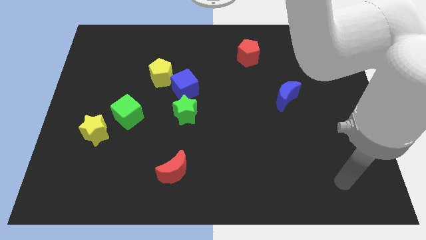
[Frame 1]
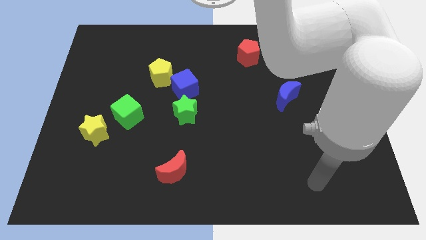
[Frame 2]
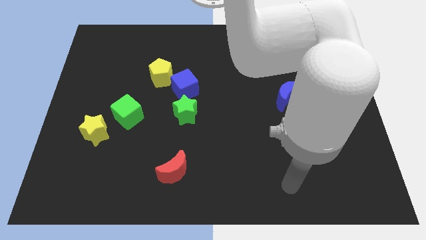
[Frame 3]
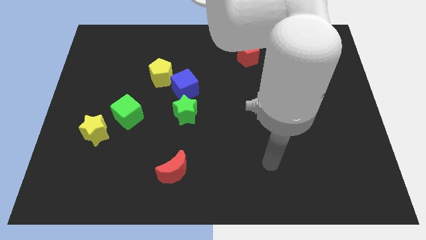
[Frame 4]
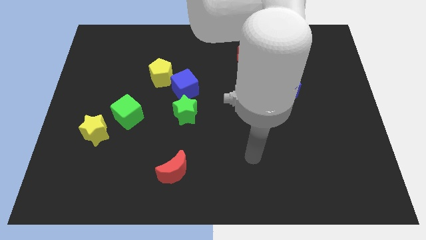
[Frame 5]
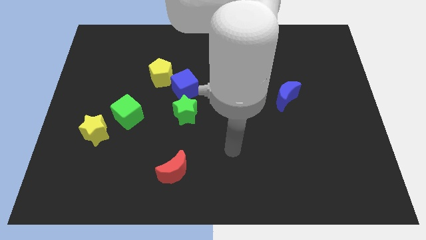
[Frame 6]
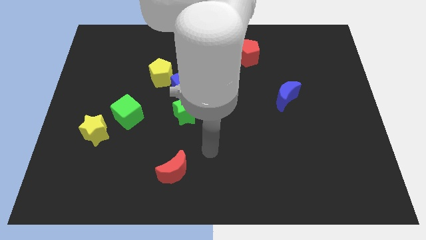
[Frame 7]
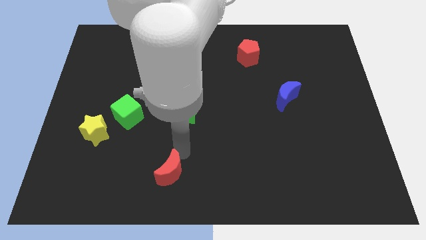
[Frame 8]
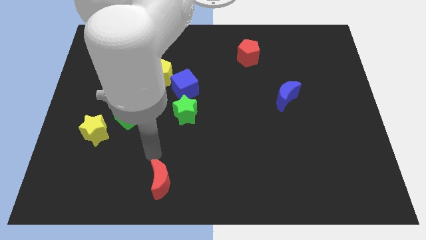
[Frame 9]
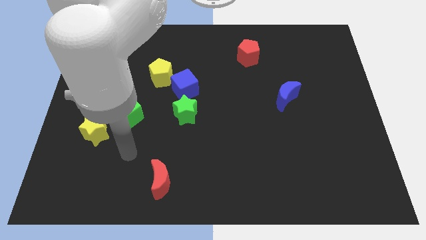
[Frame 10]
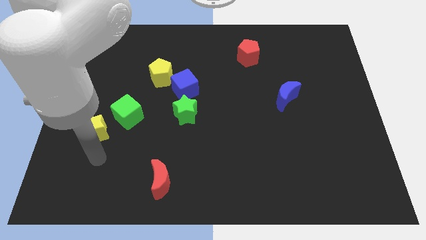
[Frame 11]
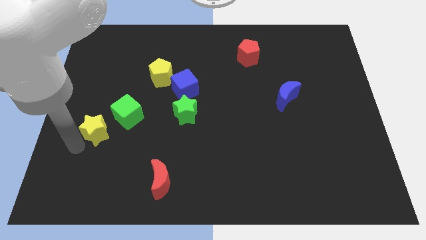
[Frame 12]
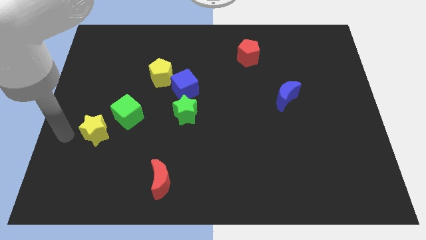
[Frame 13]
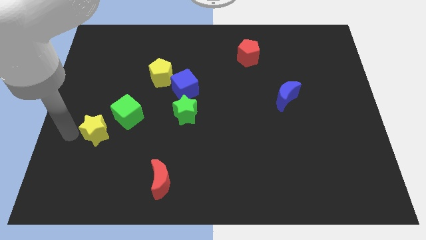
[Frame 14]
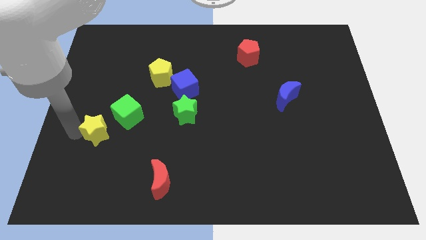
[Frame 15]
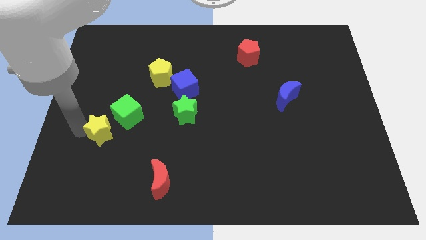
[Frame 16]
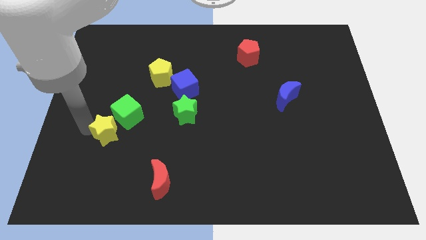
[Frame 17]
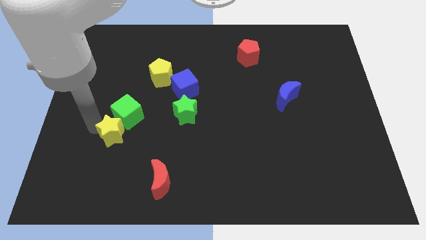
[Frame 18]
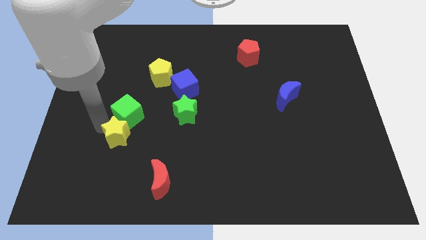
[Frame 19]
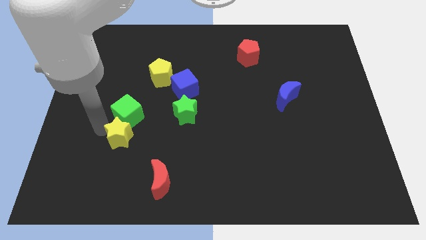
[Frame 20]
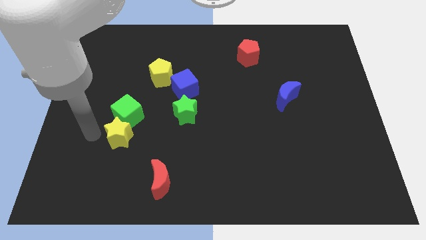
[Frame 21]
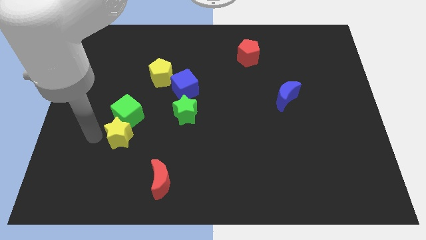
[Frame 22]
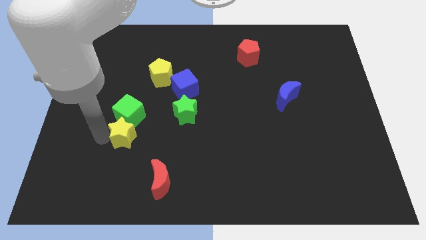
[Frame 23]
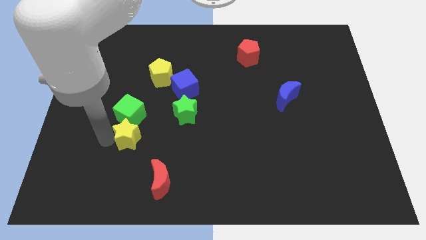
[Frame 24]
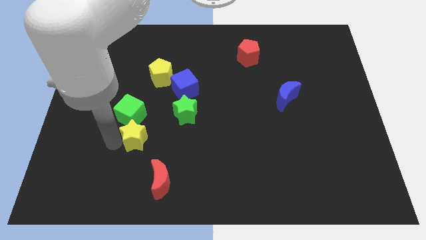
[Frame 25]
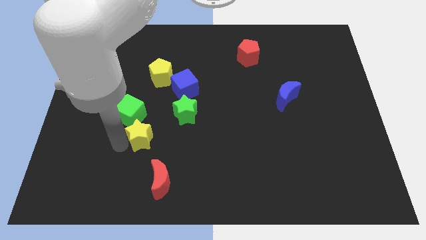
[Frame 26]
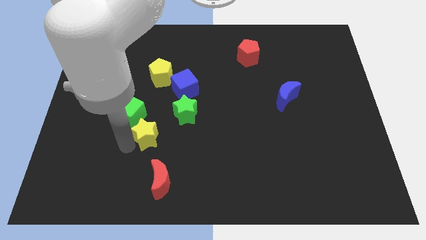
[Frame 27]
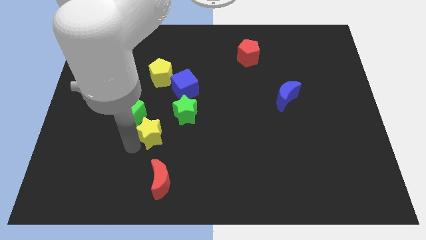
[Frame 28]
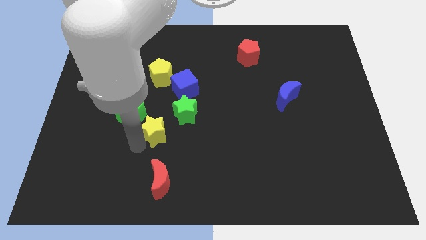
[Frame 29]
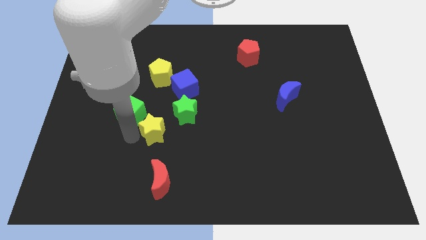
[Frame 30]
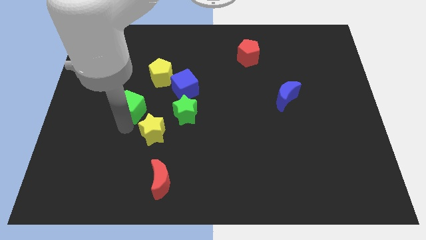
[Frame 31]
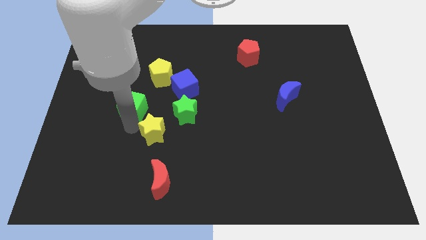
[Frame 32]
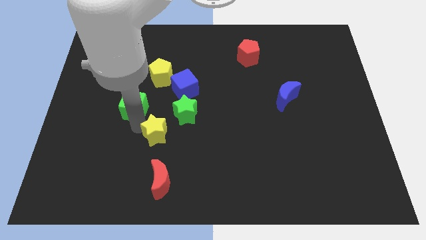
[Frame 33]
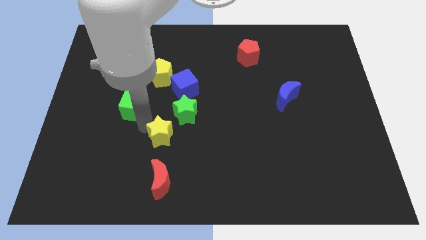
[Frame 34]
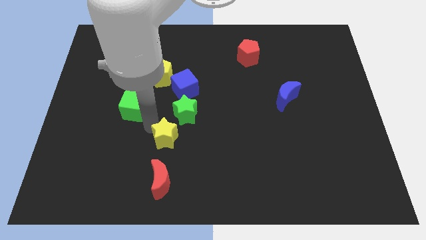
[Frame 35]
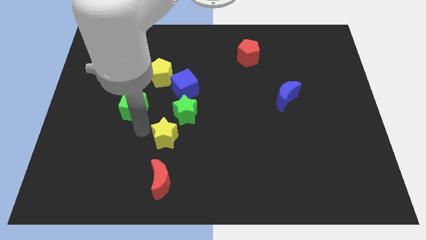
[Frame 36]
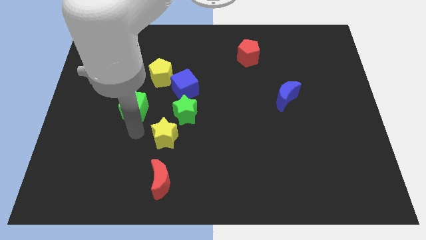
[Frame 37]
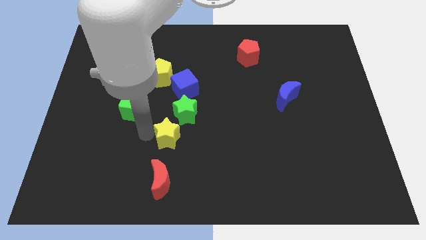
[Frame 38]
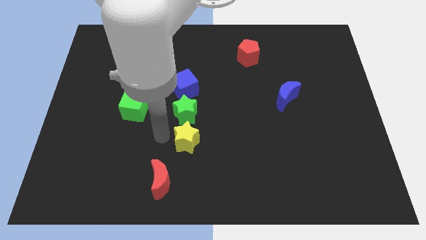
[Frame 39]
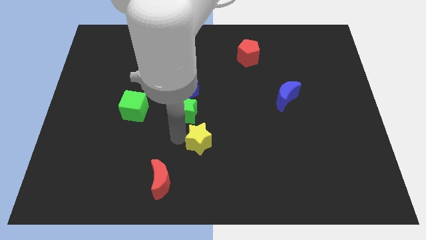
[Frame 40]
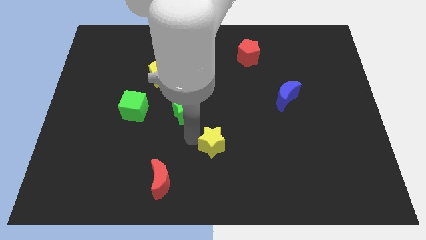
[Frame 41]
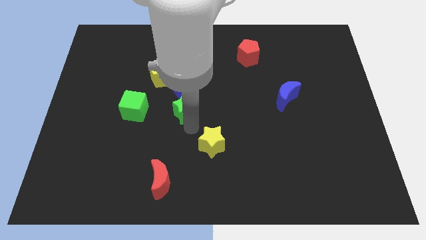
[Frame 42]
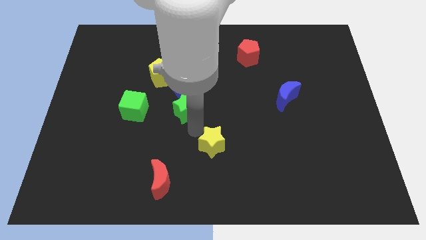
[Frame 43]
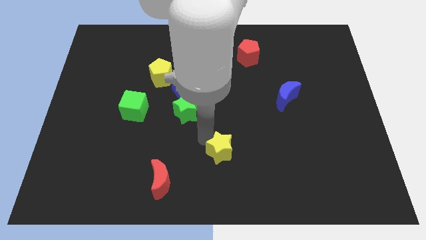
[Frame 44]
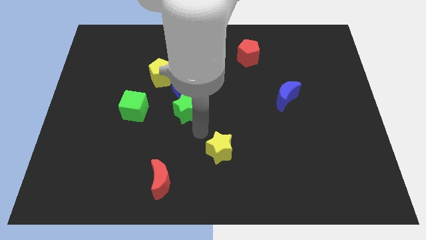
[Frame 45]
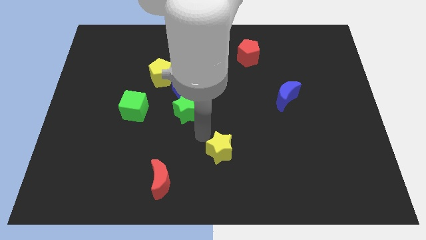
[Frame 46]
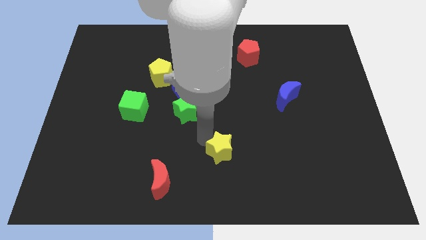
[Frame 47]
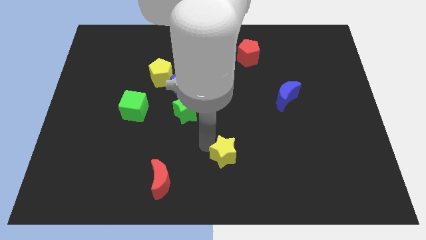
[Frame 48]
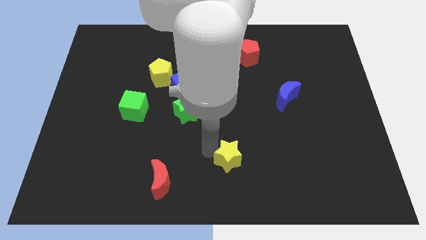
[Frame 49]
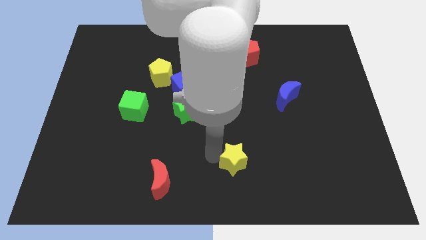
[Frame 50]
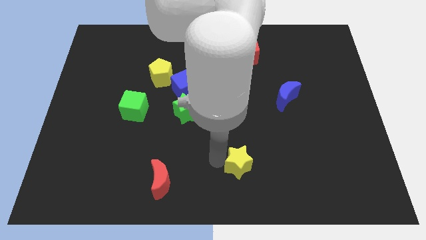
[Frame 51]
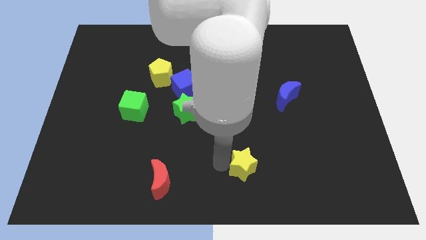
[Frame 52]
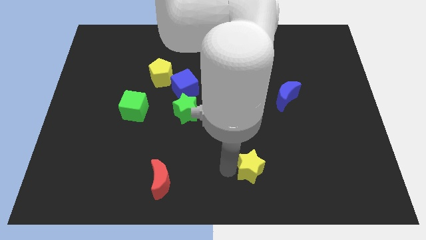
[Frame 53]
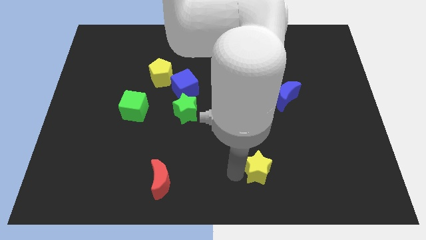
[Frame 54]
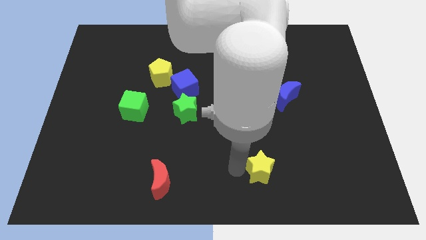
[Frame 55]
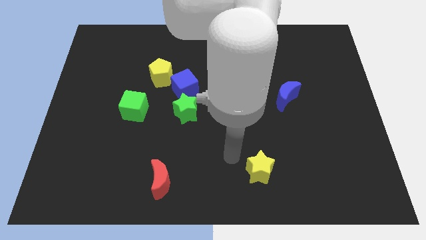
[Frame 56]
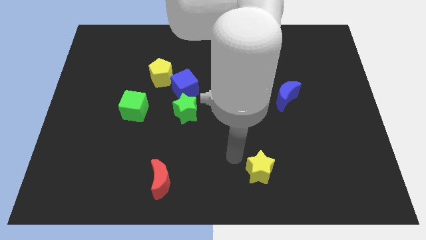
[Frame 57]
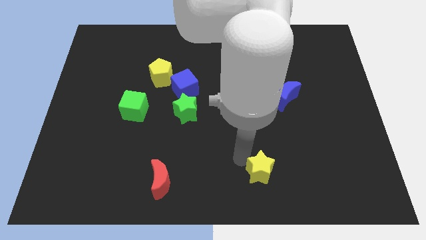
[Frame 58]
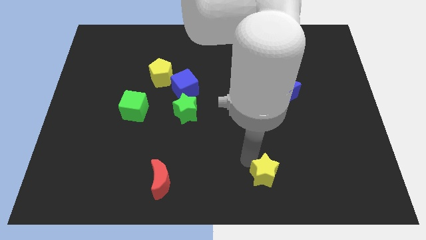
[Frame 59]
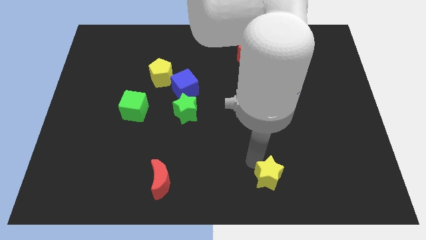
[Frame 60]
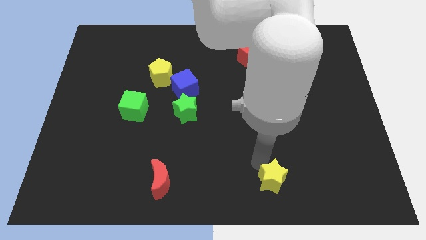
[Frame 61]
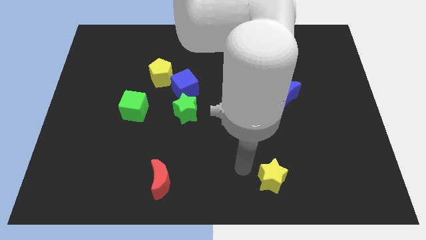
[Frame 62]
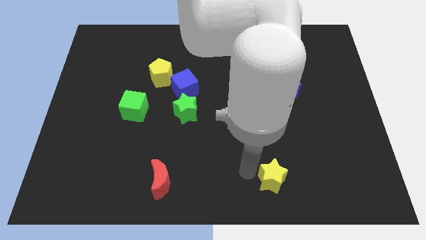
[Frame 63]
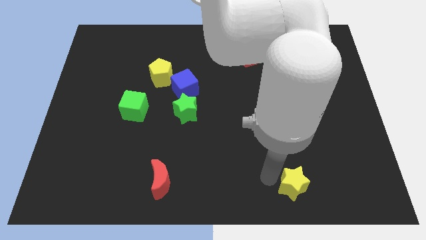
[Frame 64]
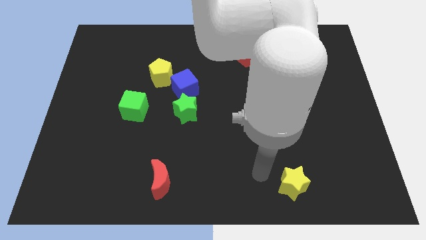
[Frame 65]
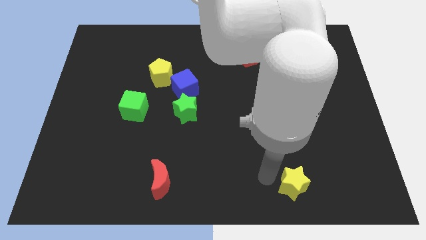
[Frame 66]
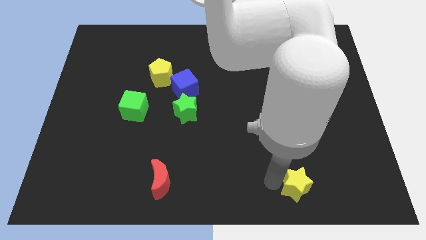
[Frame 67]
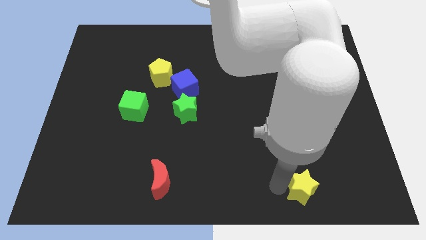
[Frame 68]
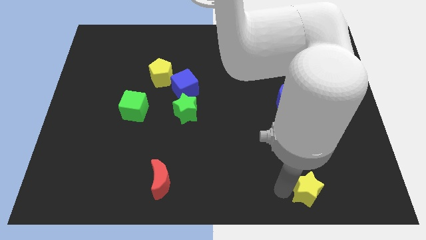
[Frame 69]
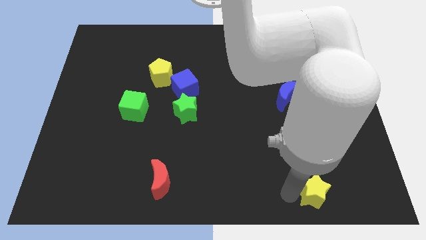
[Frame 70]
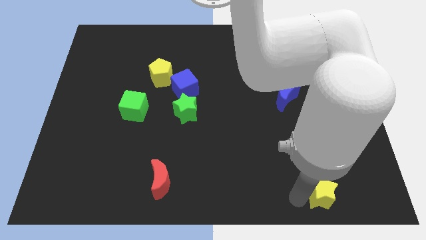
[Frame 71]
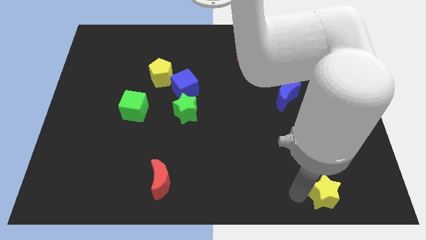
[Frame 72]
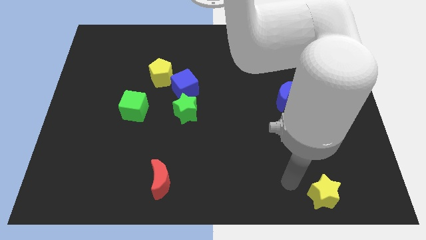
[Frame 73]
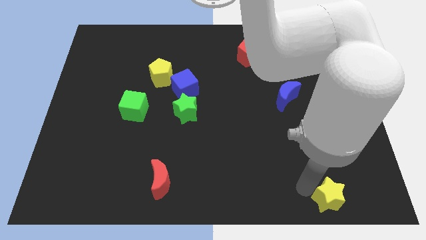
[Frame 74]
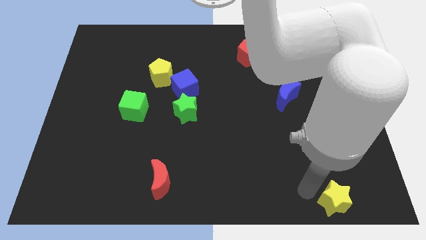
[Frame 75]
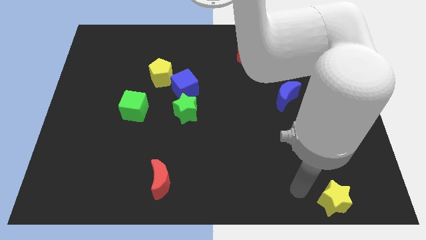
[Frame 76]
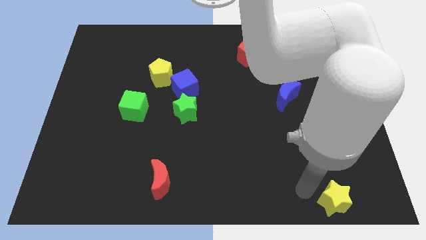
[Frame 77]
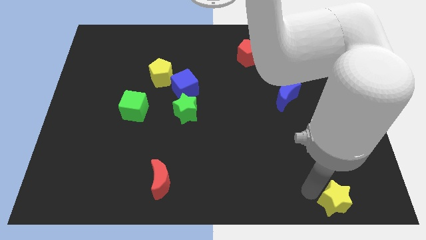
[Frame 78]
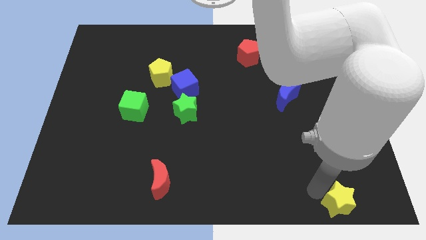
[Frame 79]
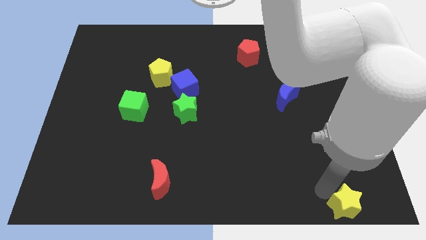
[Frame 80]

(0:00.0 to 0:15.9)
slide the yellow star to the bottom right corner
